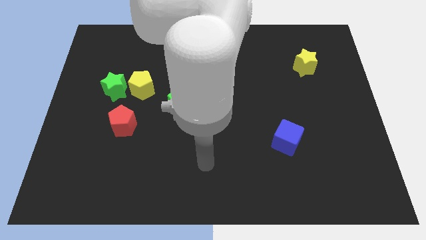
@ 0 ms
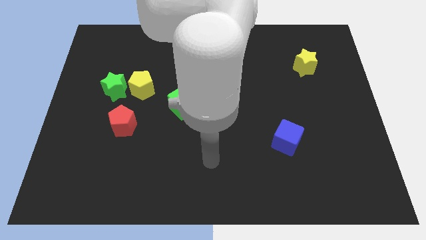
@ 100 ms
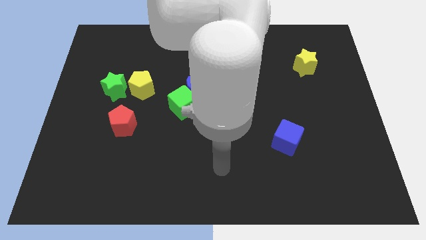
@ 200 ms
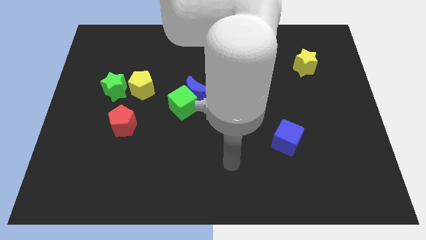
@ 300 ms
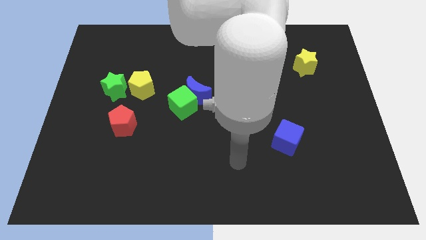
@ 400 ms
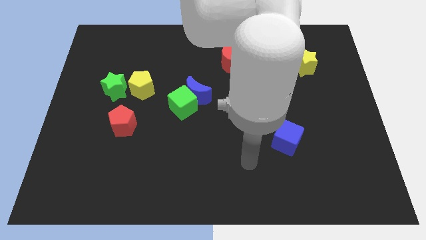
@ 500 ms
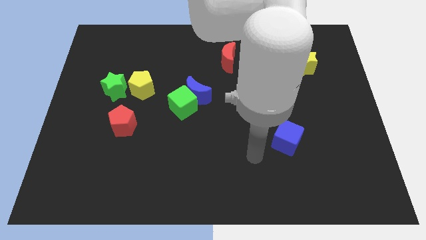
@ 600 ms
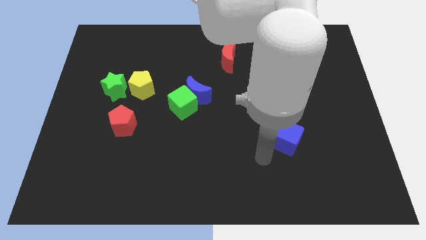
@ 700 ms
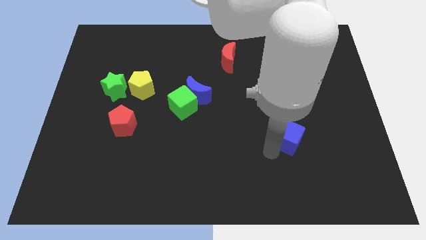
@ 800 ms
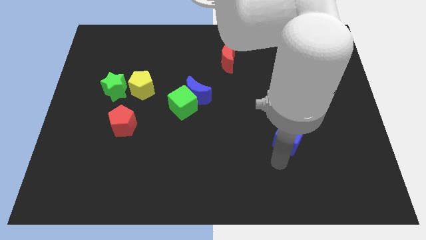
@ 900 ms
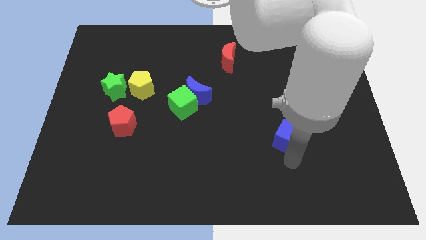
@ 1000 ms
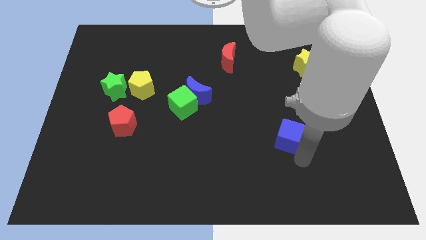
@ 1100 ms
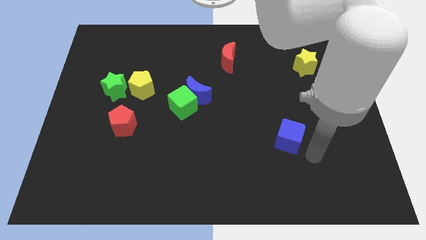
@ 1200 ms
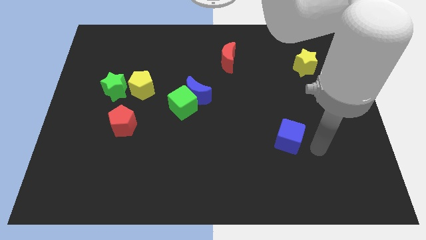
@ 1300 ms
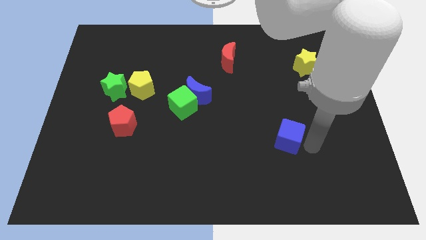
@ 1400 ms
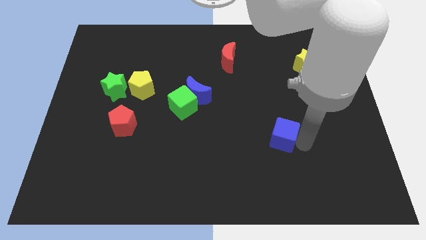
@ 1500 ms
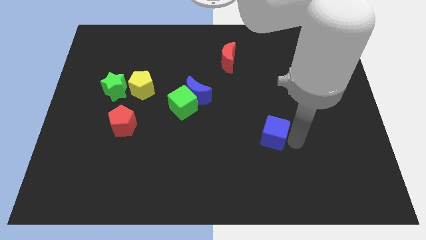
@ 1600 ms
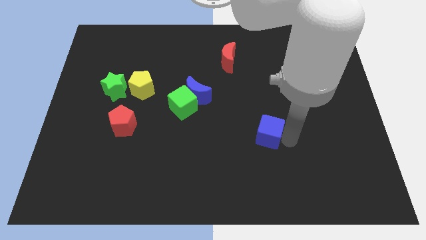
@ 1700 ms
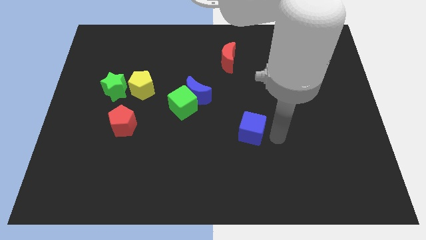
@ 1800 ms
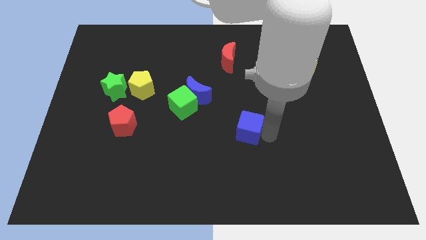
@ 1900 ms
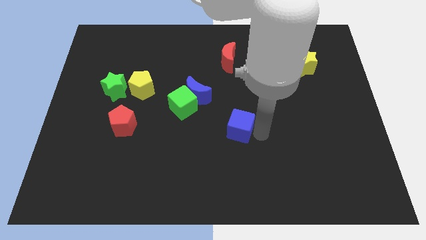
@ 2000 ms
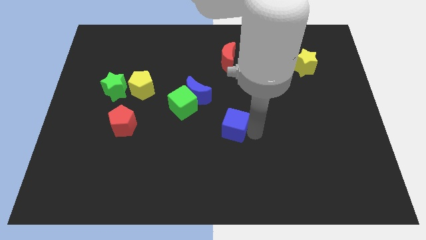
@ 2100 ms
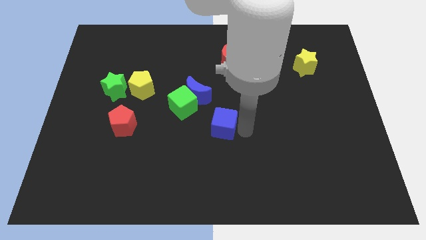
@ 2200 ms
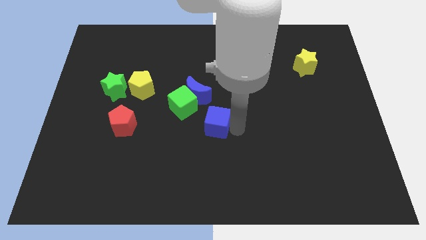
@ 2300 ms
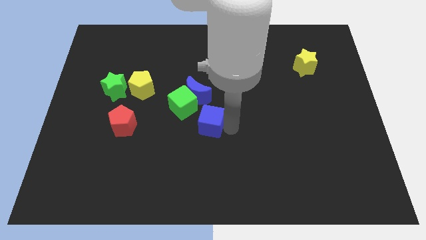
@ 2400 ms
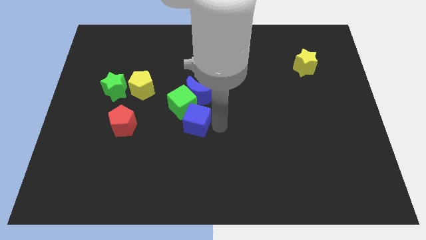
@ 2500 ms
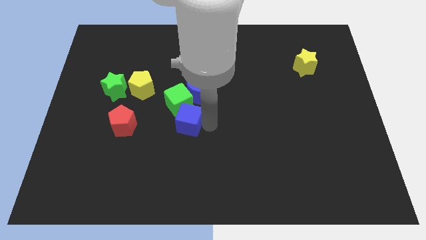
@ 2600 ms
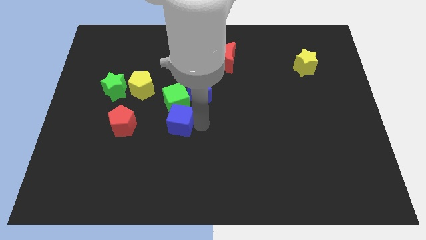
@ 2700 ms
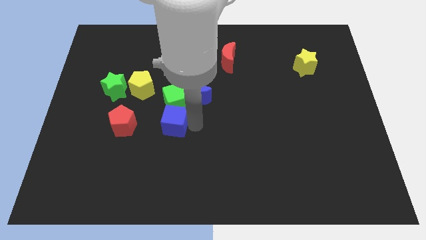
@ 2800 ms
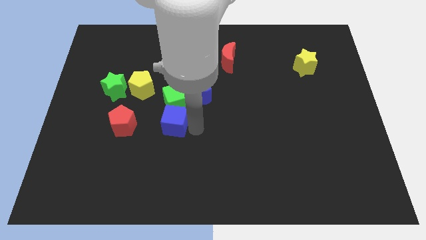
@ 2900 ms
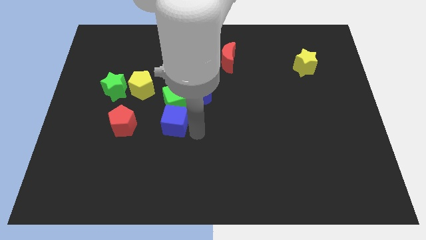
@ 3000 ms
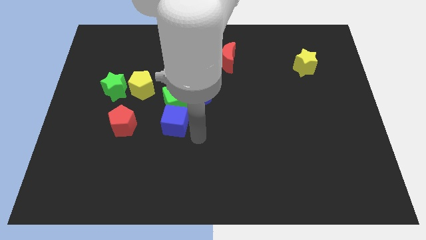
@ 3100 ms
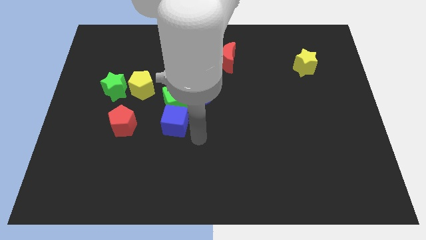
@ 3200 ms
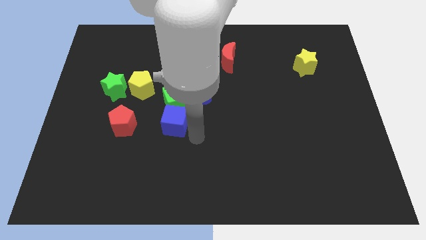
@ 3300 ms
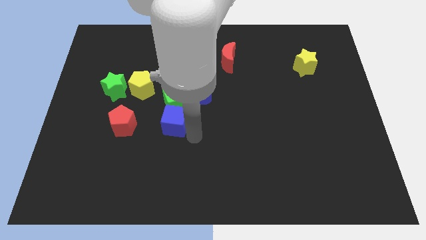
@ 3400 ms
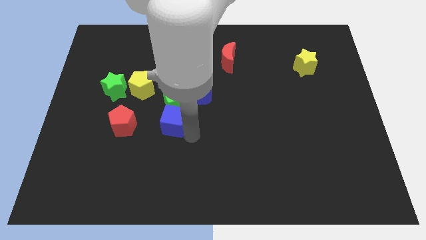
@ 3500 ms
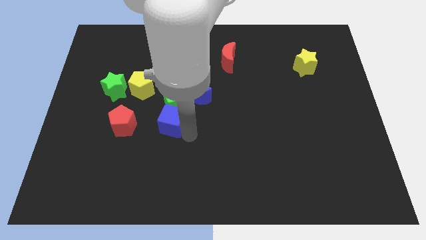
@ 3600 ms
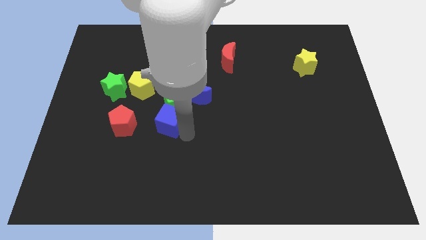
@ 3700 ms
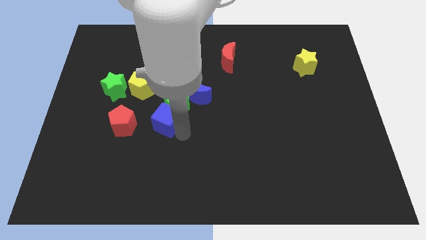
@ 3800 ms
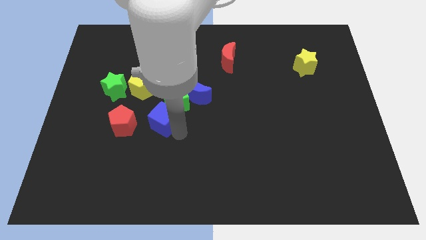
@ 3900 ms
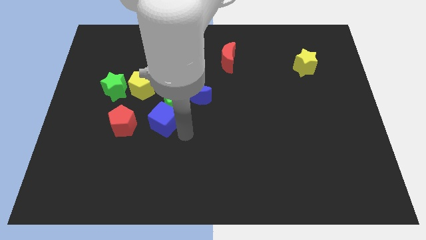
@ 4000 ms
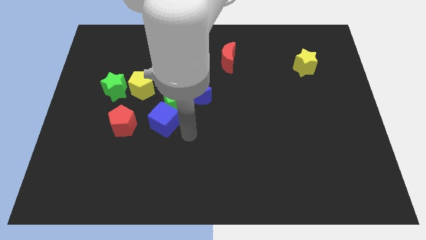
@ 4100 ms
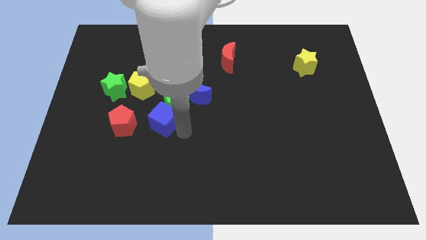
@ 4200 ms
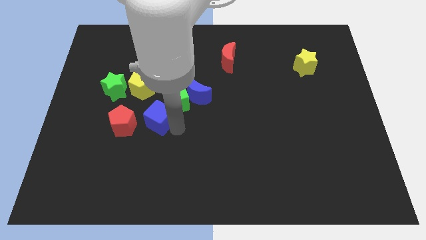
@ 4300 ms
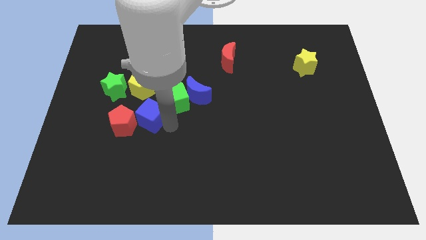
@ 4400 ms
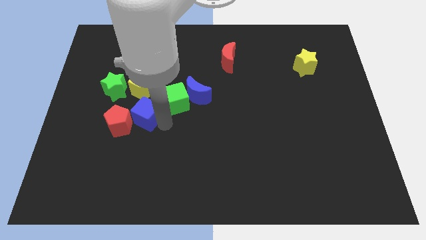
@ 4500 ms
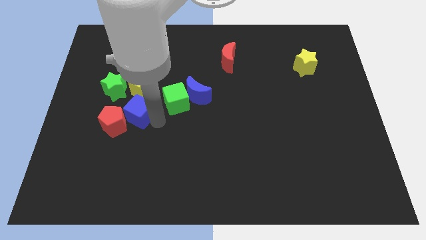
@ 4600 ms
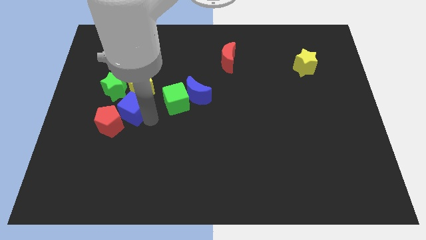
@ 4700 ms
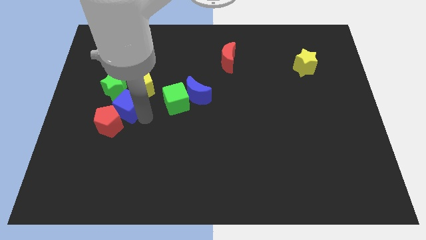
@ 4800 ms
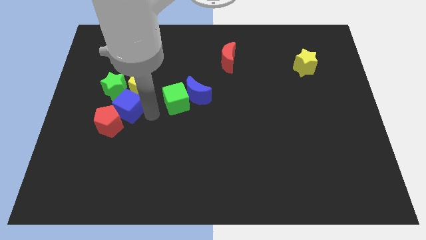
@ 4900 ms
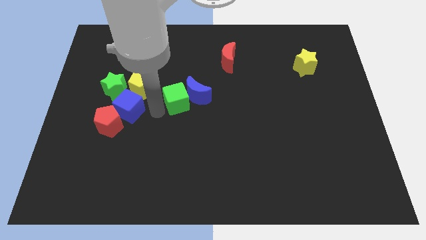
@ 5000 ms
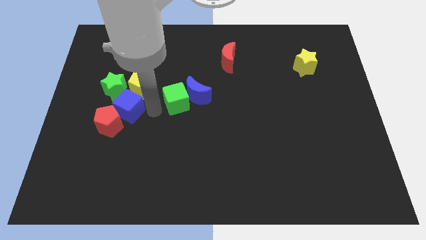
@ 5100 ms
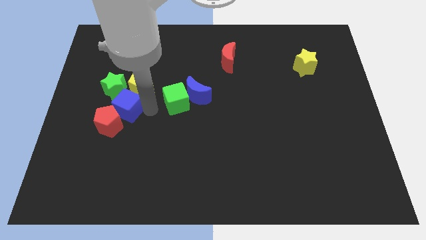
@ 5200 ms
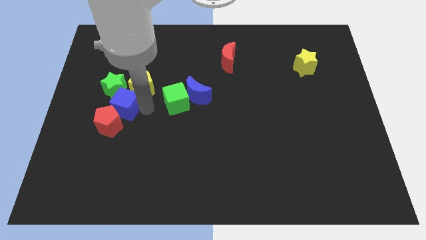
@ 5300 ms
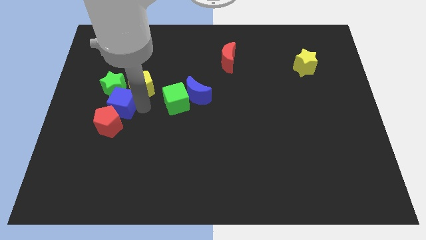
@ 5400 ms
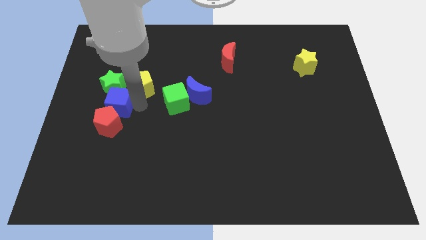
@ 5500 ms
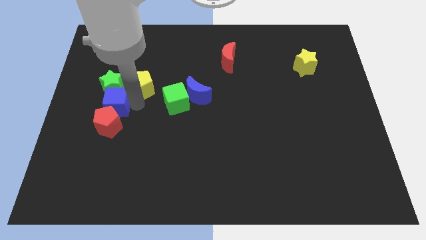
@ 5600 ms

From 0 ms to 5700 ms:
push the blue cube diagonally down and to the left of the green star

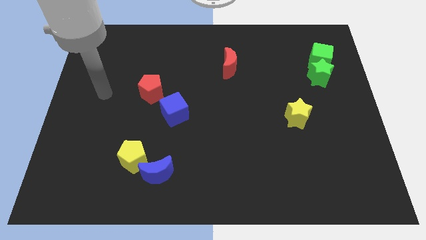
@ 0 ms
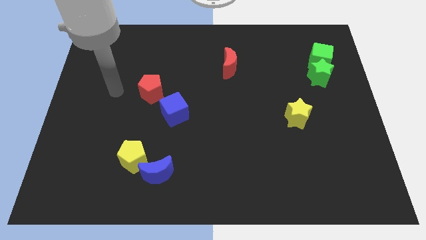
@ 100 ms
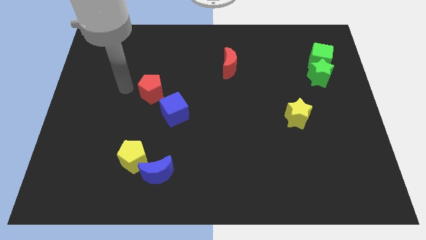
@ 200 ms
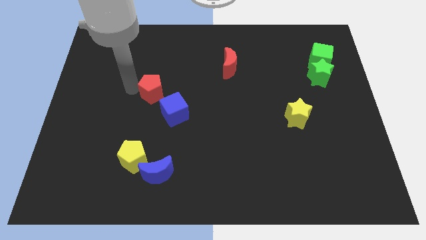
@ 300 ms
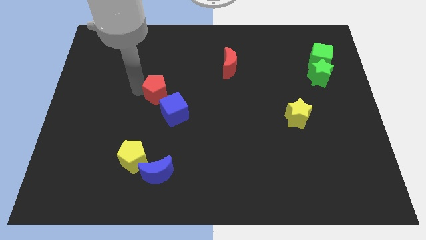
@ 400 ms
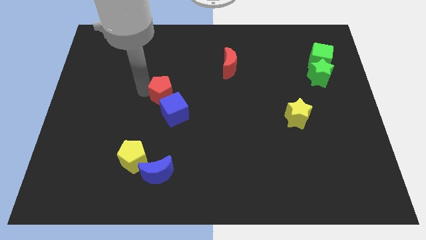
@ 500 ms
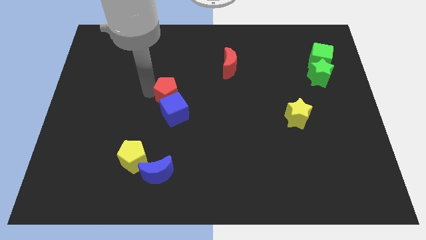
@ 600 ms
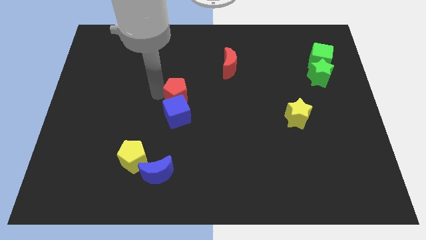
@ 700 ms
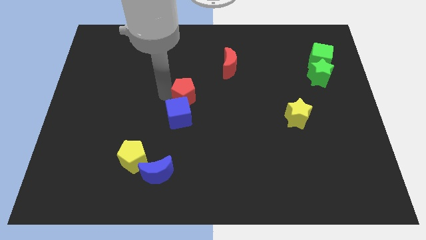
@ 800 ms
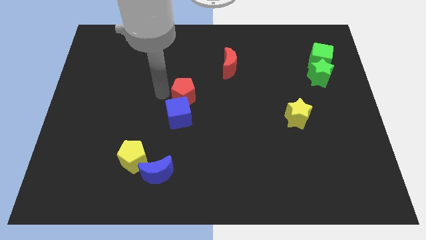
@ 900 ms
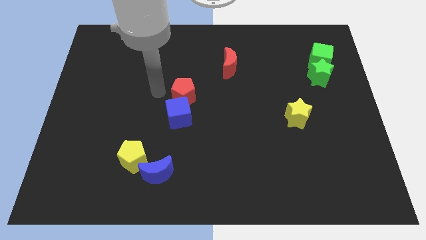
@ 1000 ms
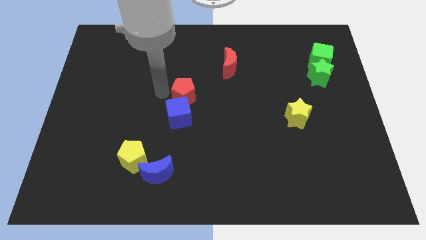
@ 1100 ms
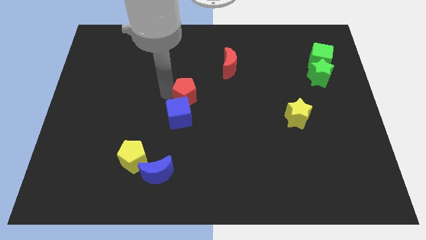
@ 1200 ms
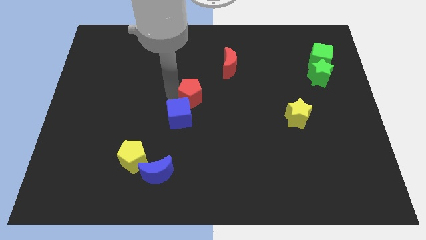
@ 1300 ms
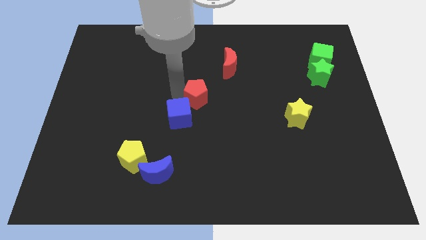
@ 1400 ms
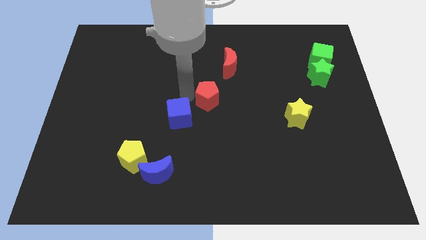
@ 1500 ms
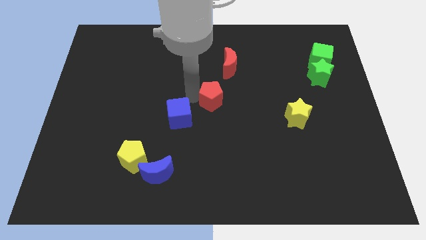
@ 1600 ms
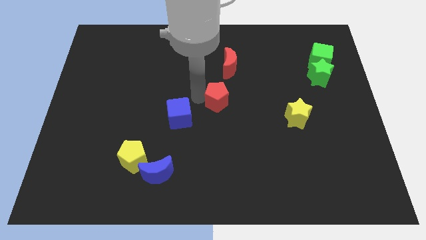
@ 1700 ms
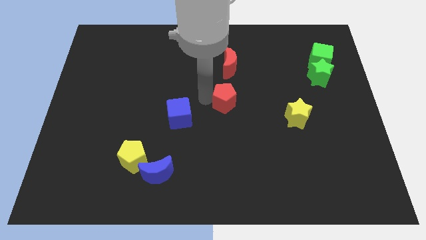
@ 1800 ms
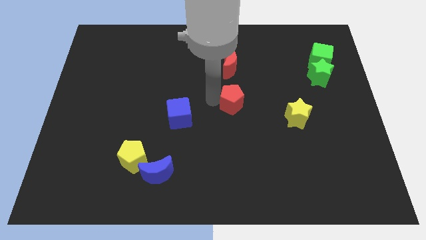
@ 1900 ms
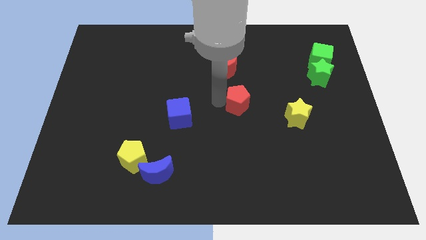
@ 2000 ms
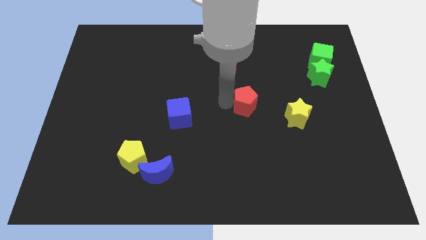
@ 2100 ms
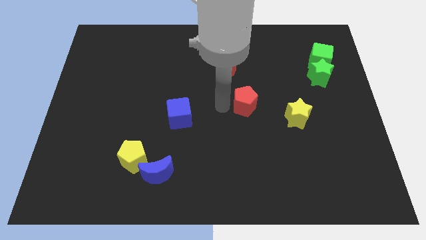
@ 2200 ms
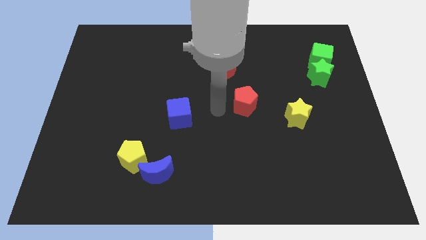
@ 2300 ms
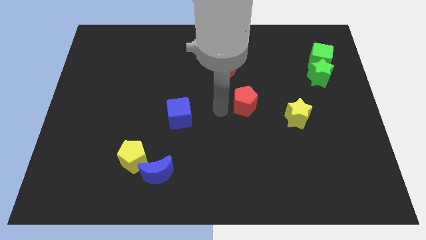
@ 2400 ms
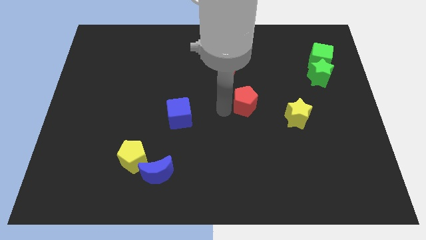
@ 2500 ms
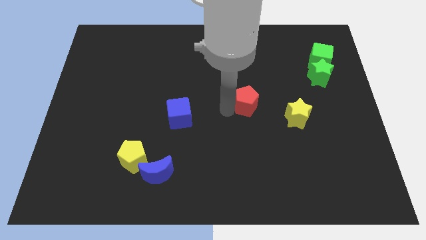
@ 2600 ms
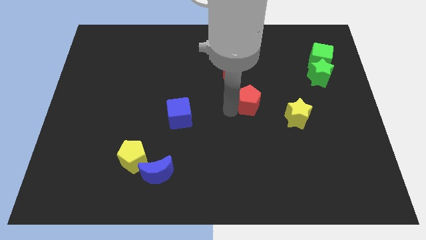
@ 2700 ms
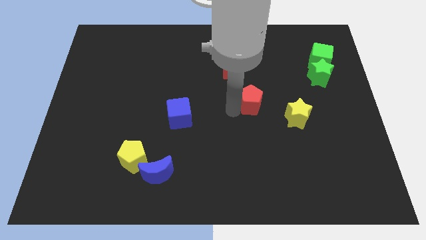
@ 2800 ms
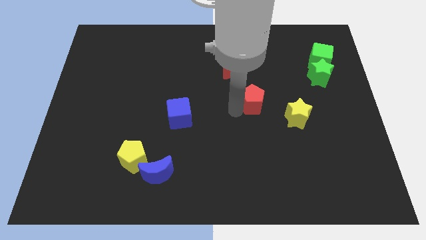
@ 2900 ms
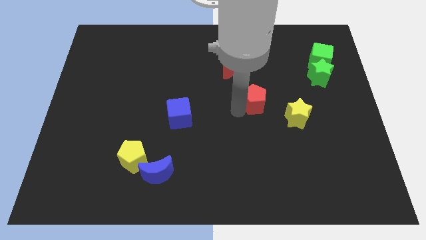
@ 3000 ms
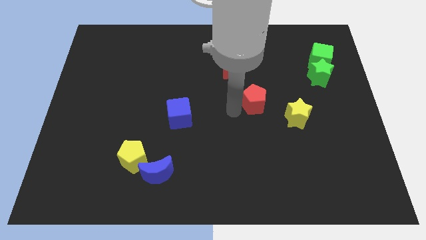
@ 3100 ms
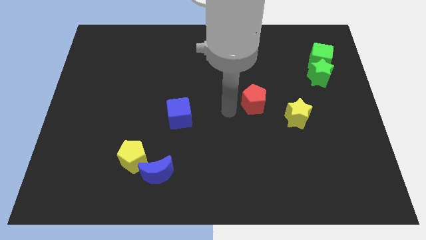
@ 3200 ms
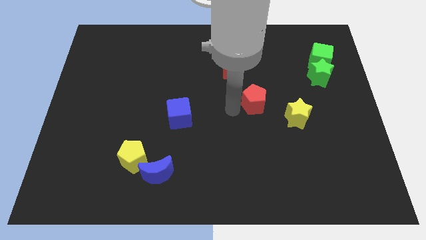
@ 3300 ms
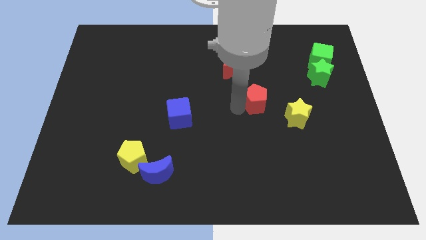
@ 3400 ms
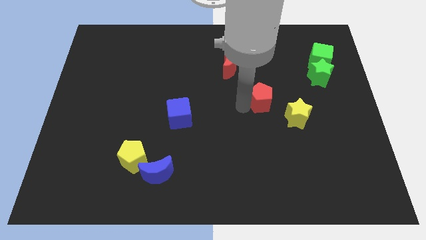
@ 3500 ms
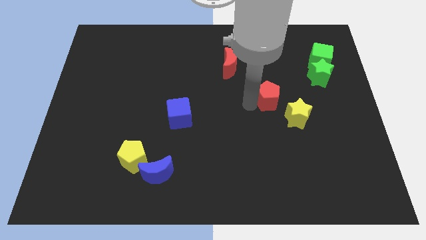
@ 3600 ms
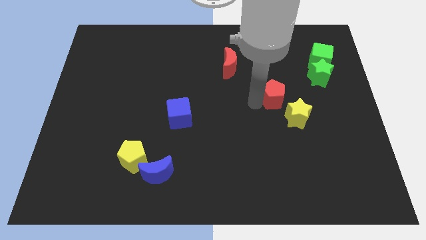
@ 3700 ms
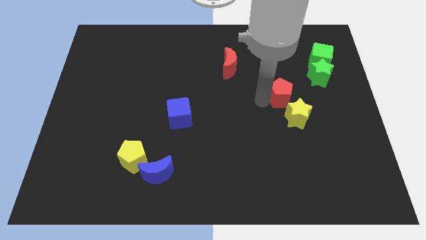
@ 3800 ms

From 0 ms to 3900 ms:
push the red pentagon to the bottom left side of the green star
